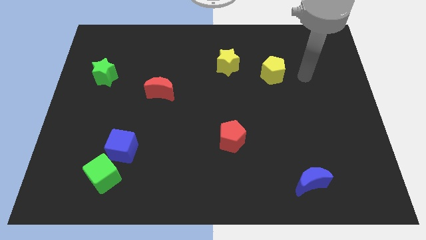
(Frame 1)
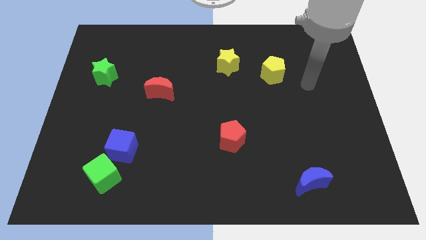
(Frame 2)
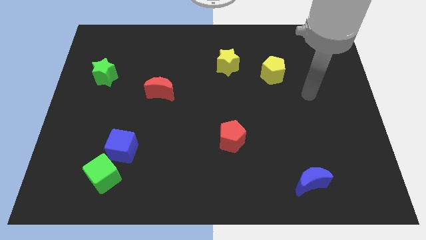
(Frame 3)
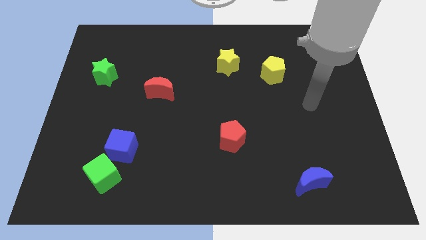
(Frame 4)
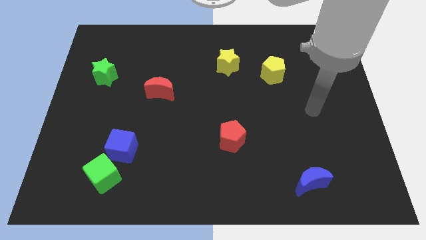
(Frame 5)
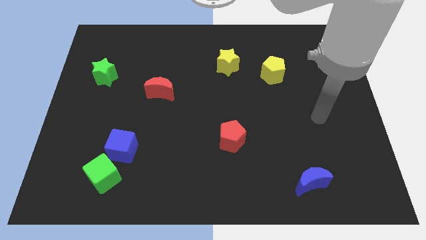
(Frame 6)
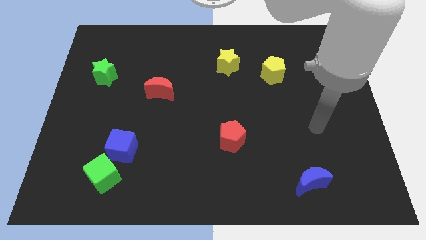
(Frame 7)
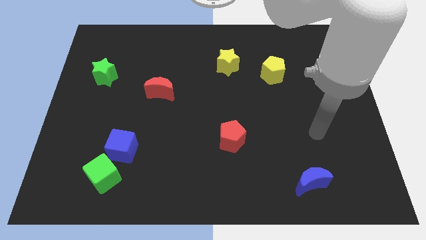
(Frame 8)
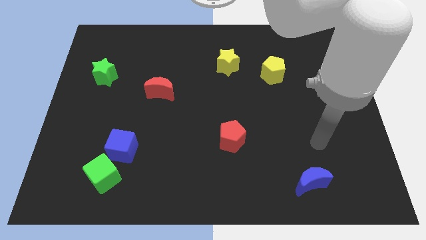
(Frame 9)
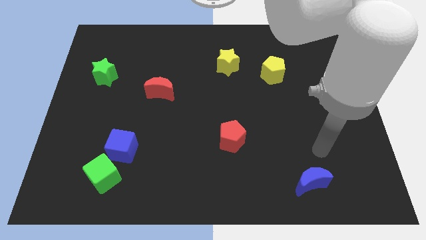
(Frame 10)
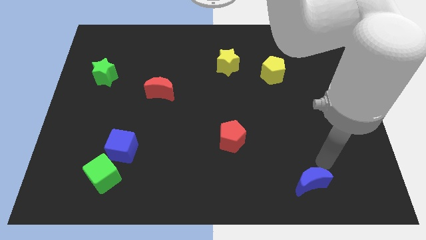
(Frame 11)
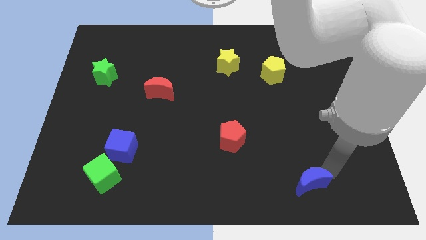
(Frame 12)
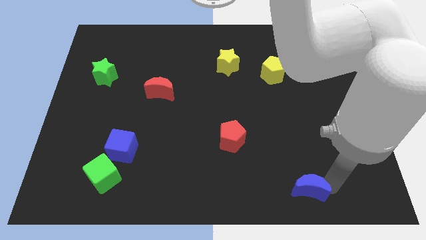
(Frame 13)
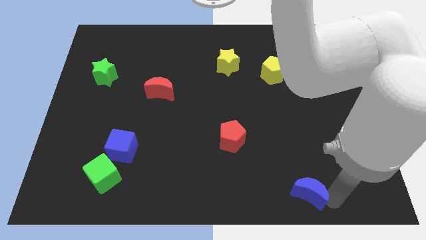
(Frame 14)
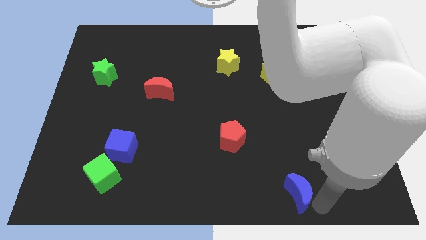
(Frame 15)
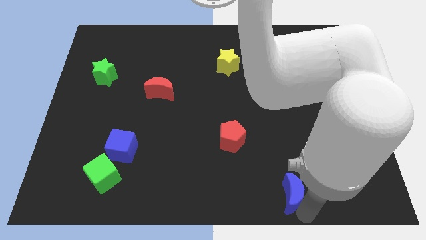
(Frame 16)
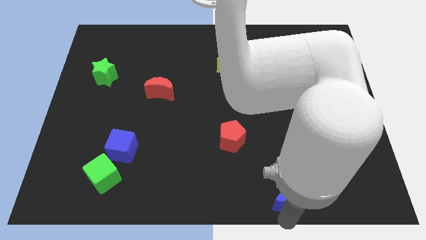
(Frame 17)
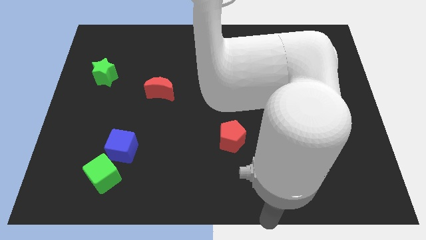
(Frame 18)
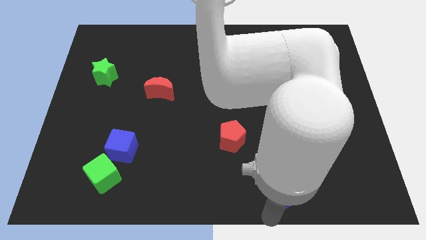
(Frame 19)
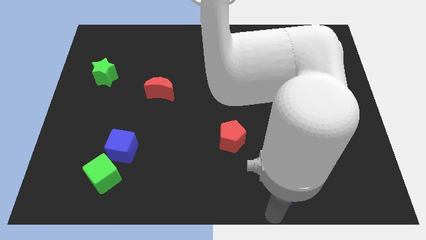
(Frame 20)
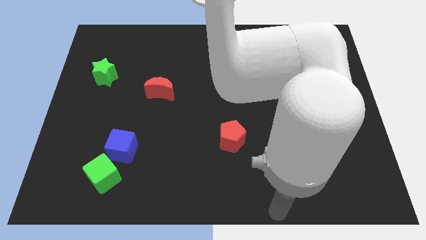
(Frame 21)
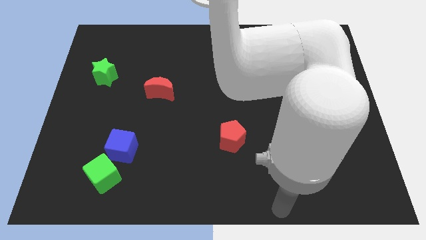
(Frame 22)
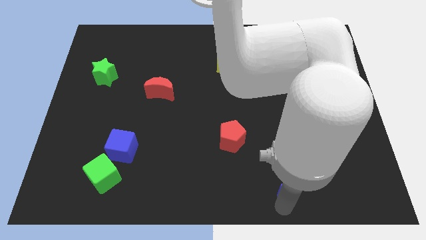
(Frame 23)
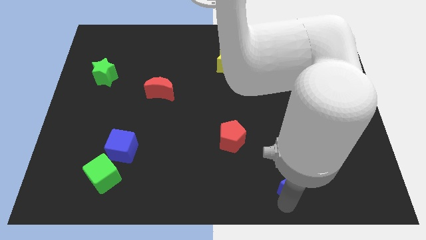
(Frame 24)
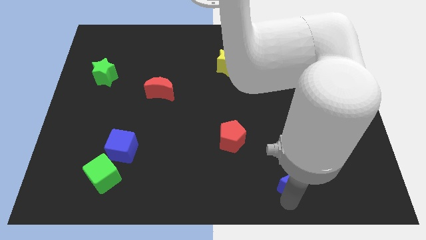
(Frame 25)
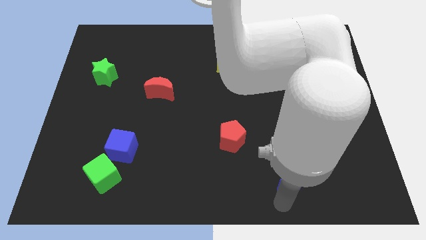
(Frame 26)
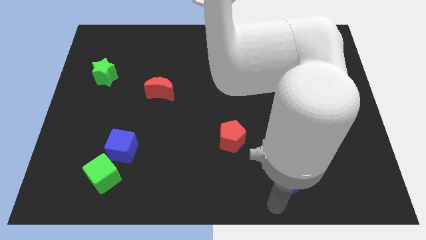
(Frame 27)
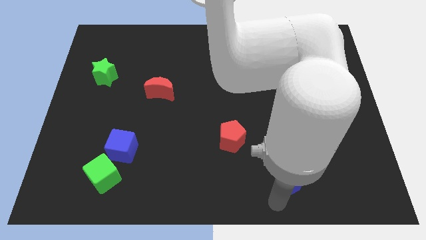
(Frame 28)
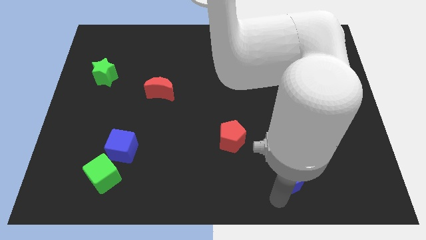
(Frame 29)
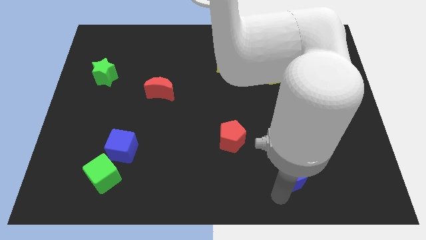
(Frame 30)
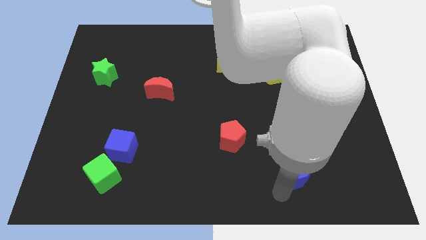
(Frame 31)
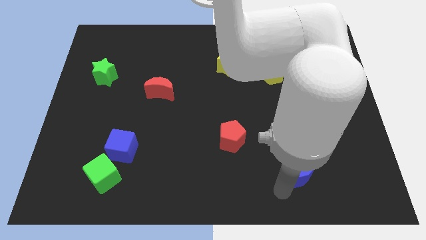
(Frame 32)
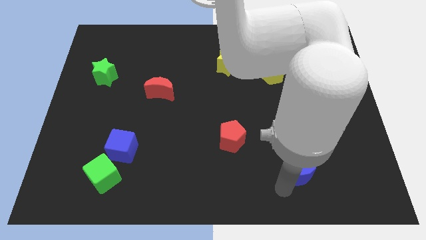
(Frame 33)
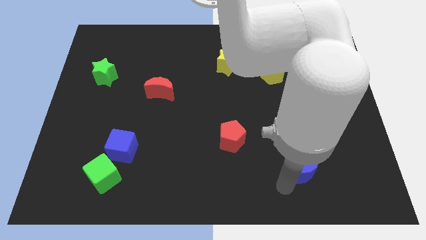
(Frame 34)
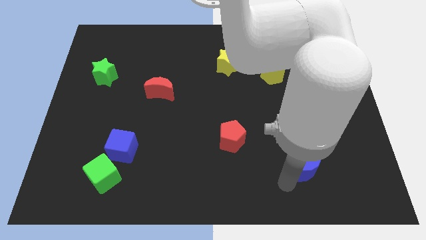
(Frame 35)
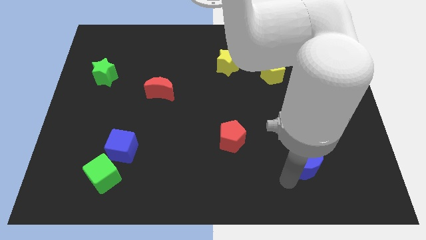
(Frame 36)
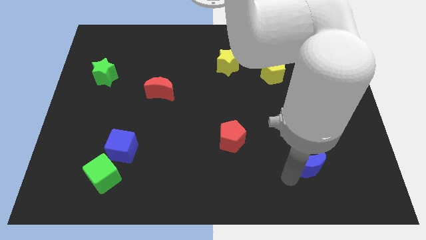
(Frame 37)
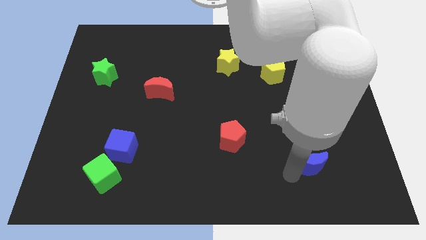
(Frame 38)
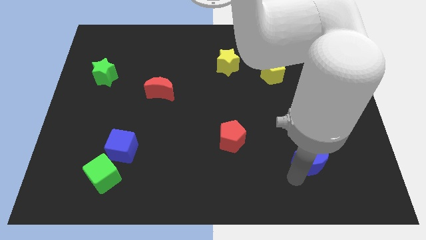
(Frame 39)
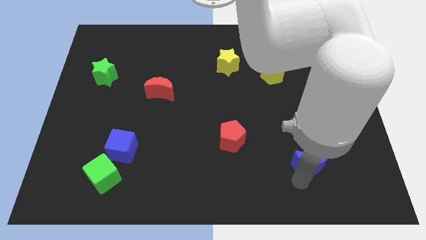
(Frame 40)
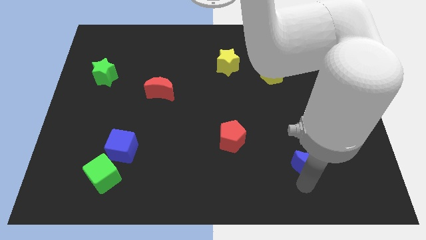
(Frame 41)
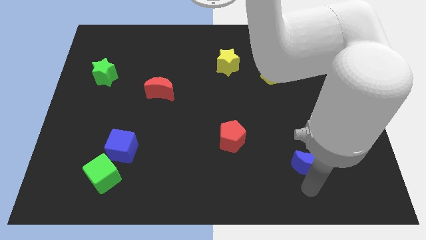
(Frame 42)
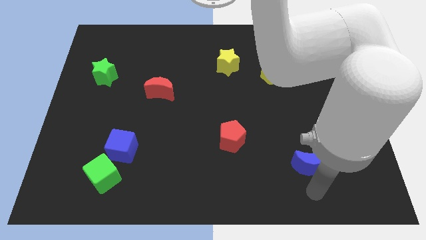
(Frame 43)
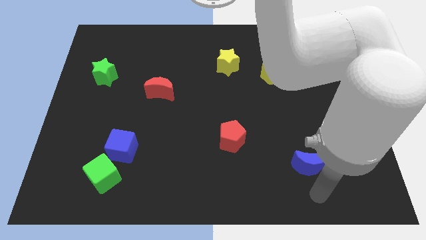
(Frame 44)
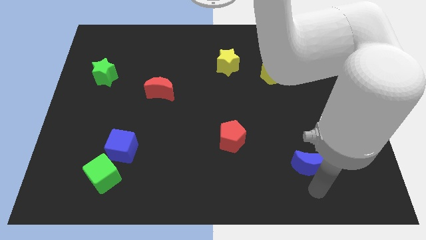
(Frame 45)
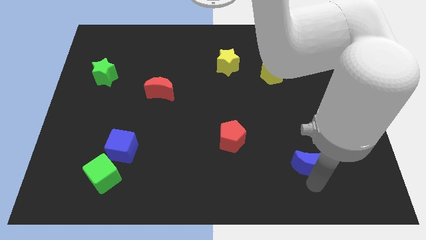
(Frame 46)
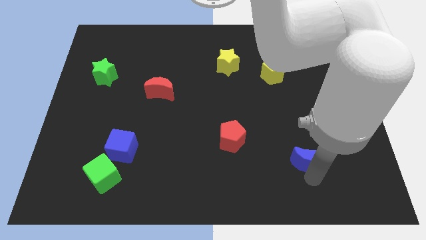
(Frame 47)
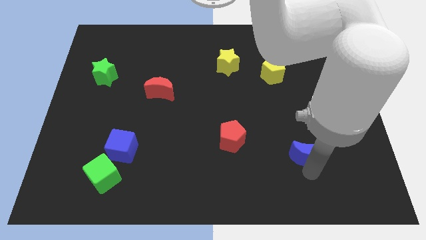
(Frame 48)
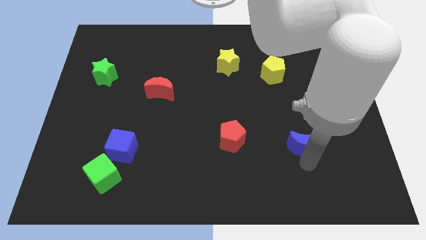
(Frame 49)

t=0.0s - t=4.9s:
move the blue moon a little bit up

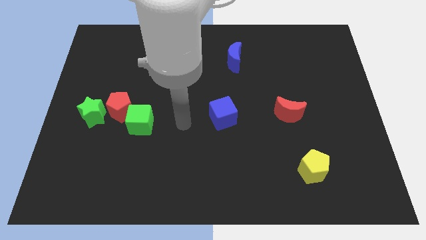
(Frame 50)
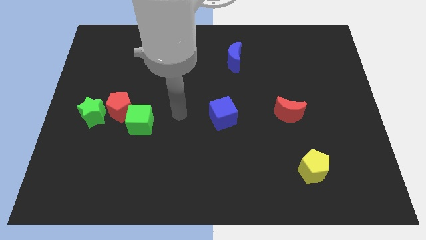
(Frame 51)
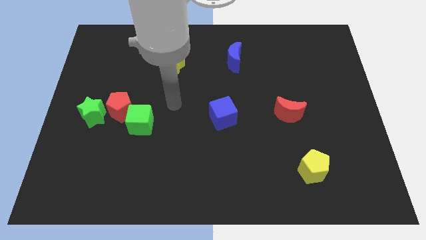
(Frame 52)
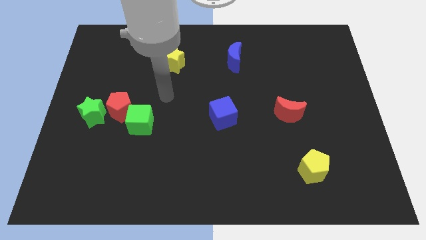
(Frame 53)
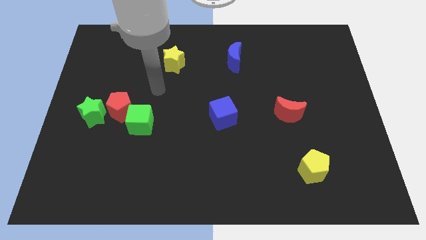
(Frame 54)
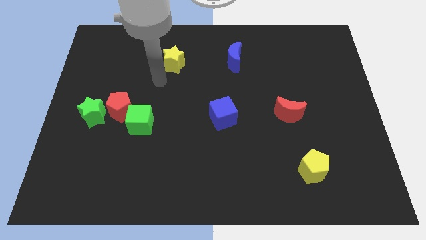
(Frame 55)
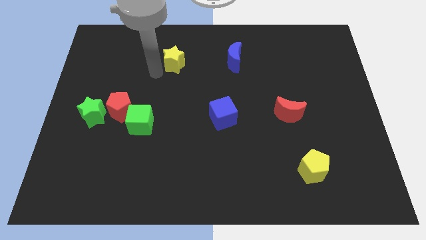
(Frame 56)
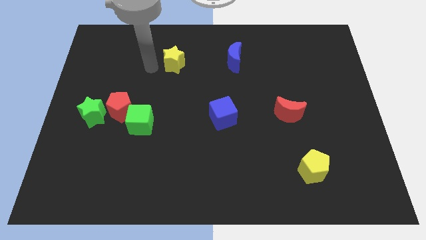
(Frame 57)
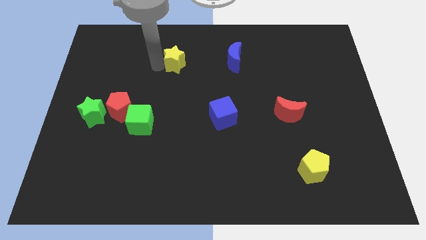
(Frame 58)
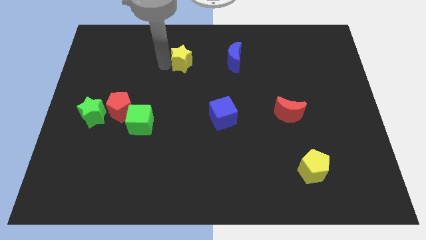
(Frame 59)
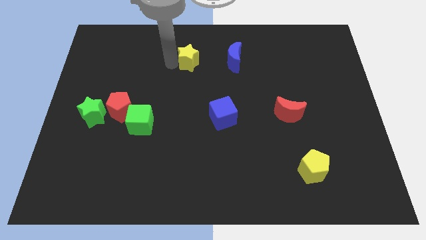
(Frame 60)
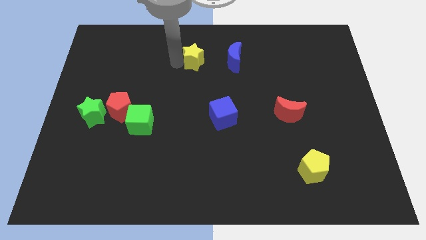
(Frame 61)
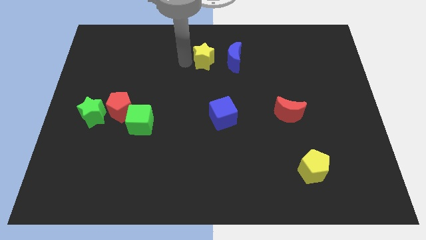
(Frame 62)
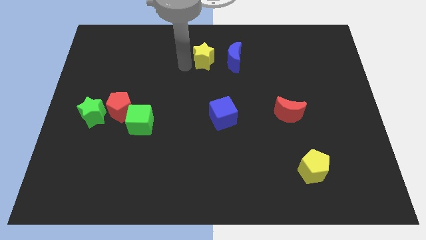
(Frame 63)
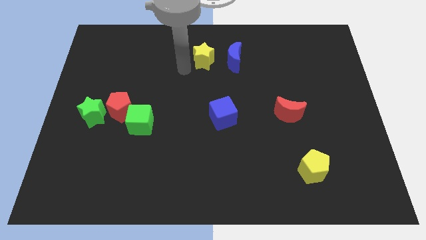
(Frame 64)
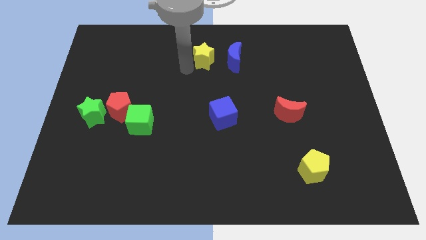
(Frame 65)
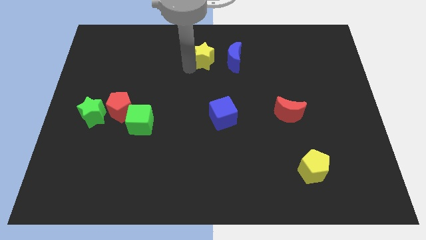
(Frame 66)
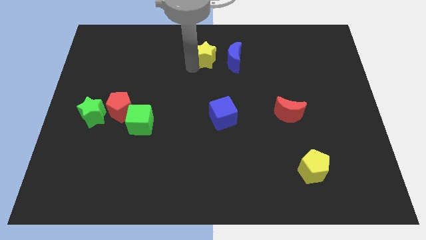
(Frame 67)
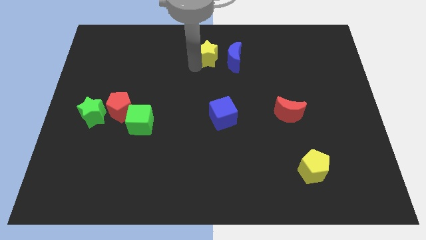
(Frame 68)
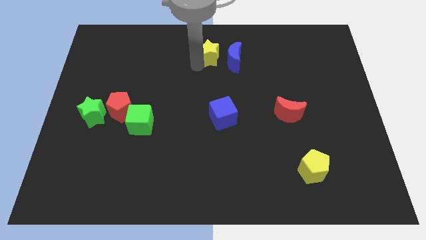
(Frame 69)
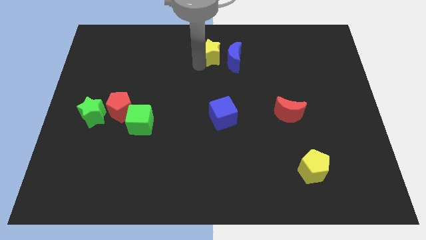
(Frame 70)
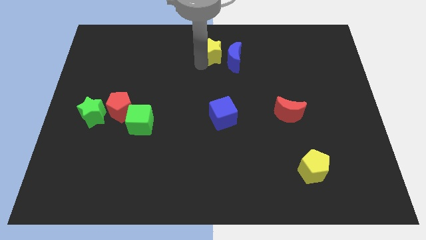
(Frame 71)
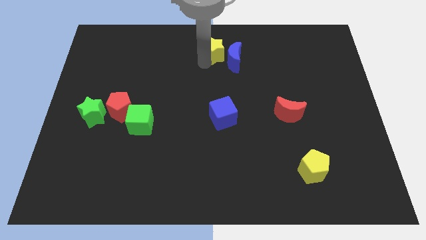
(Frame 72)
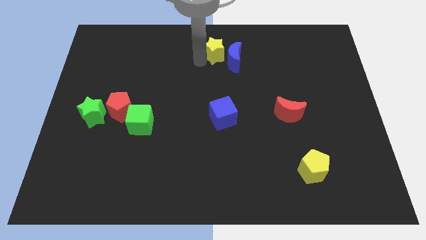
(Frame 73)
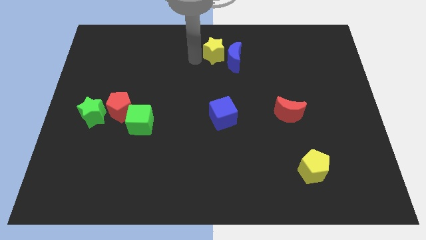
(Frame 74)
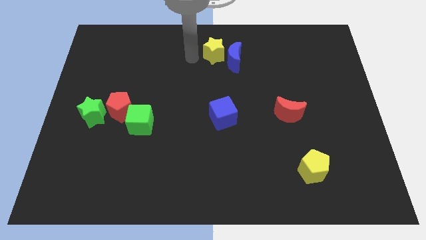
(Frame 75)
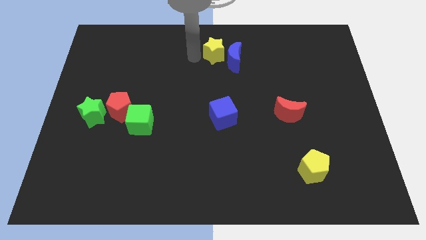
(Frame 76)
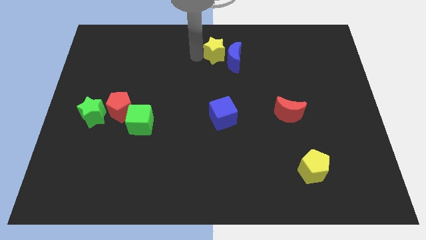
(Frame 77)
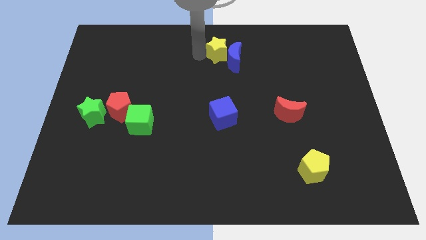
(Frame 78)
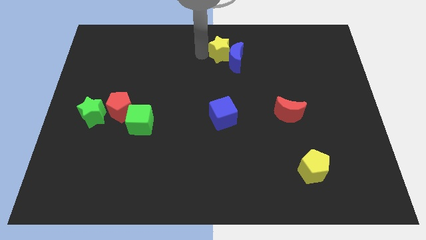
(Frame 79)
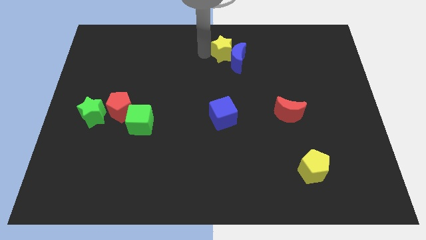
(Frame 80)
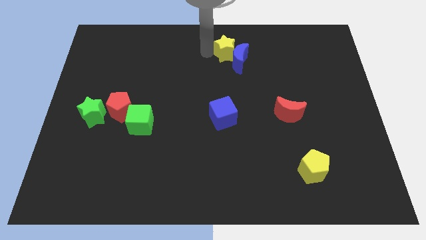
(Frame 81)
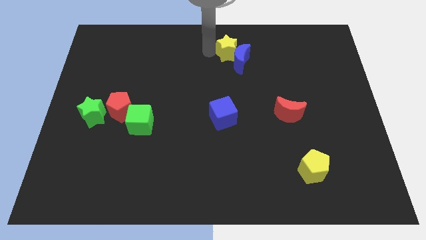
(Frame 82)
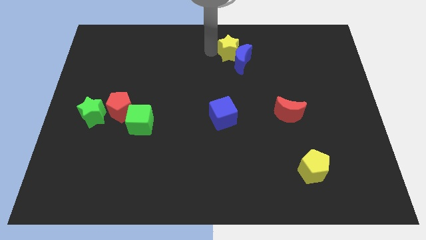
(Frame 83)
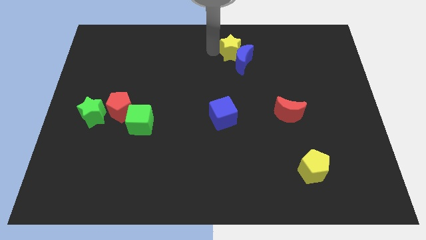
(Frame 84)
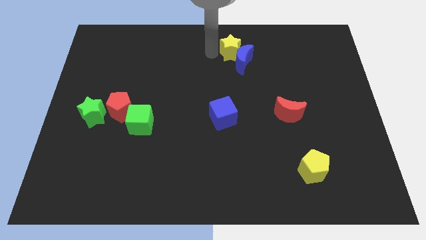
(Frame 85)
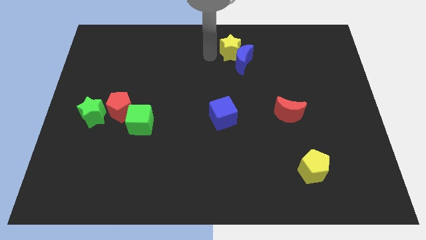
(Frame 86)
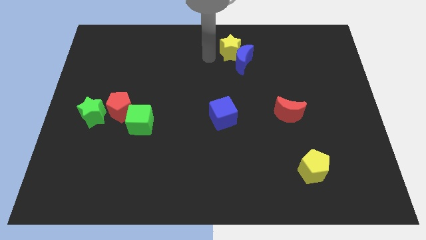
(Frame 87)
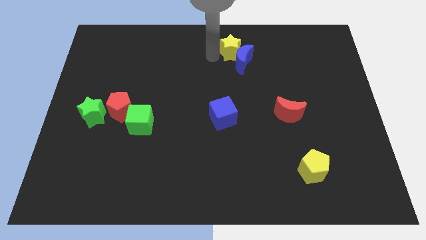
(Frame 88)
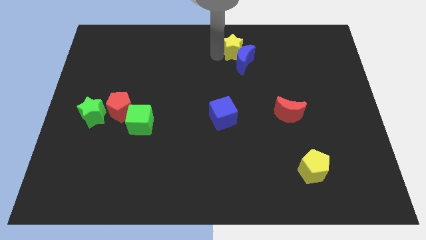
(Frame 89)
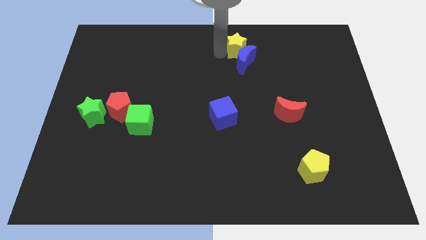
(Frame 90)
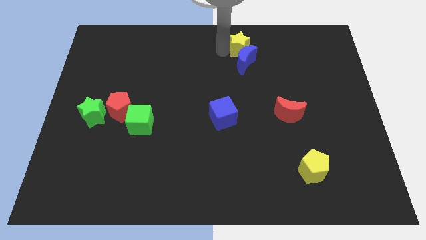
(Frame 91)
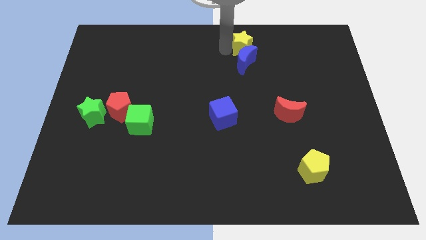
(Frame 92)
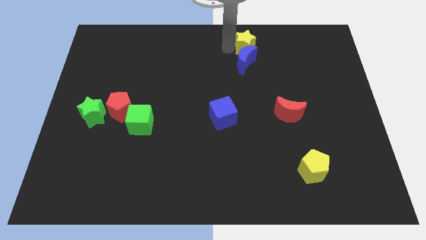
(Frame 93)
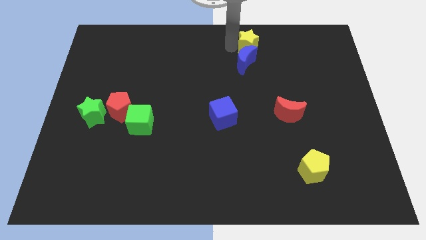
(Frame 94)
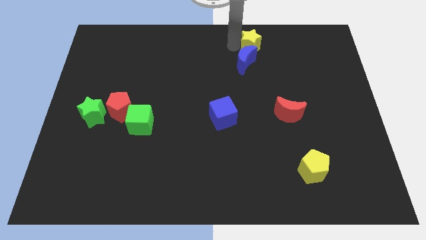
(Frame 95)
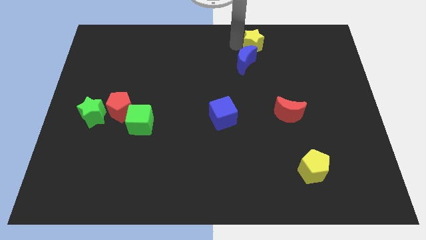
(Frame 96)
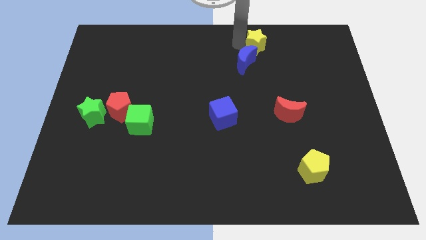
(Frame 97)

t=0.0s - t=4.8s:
move the yellow star to the right
